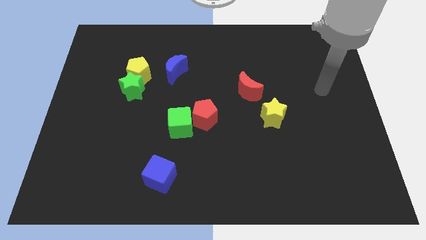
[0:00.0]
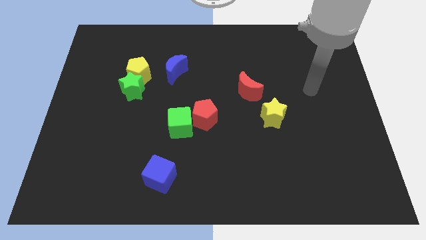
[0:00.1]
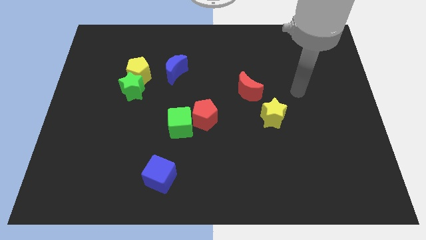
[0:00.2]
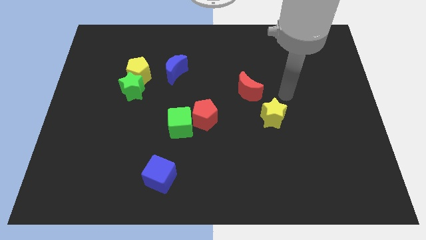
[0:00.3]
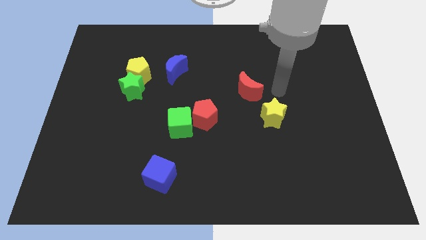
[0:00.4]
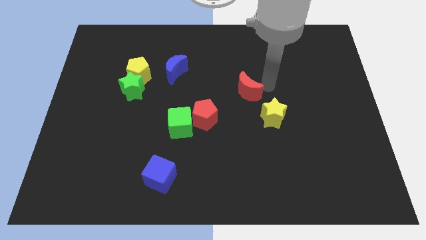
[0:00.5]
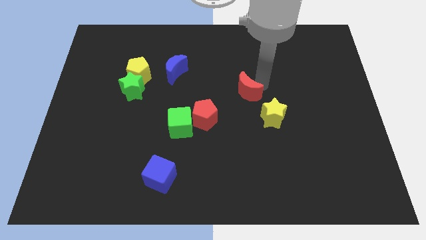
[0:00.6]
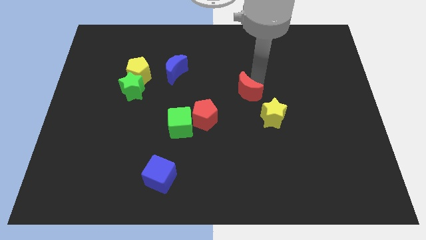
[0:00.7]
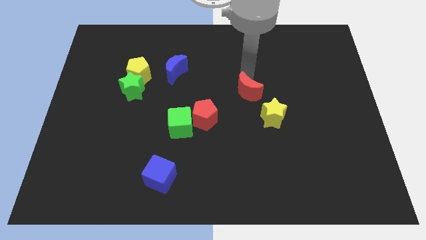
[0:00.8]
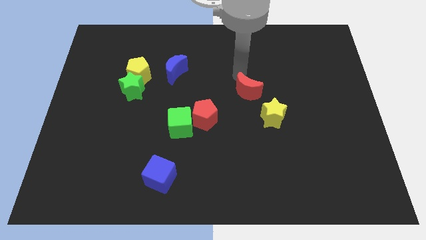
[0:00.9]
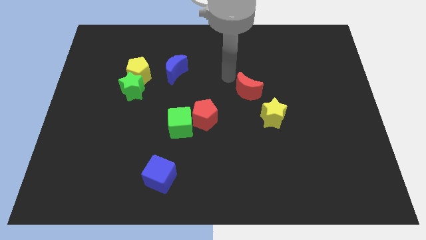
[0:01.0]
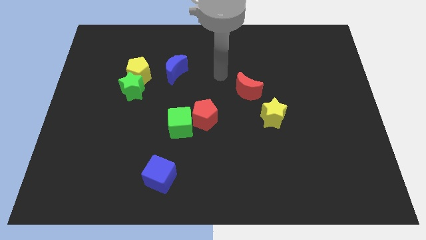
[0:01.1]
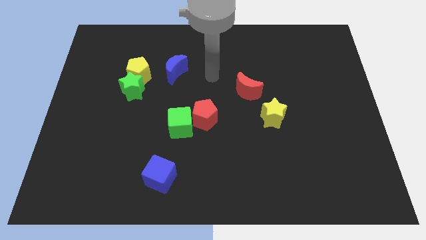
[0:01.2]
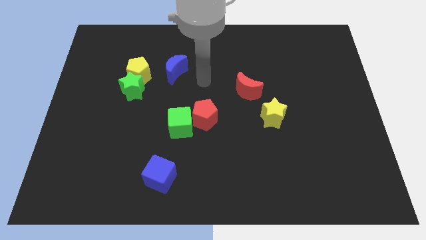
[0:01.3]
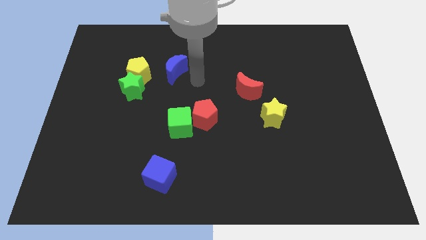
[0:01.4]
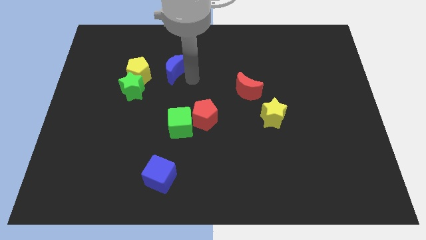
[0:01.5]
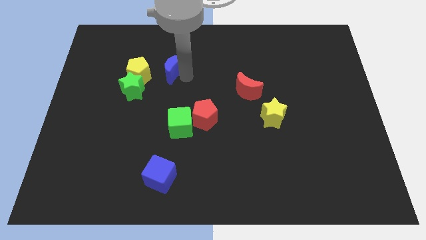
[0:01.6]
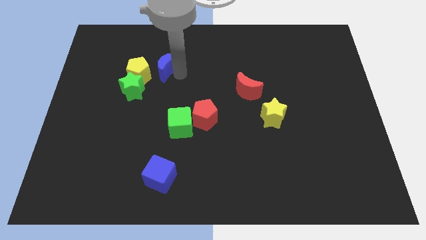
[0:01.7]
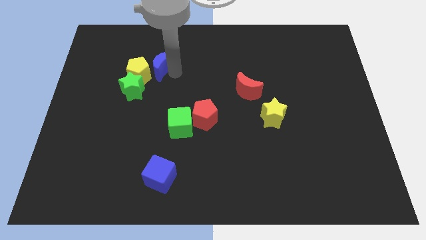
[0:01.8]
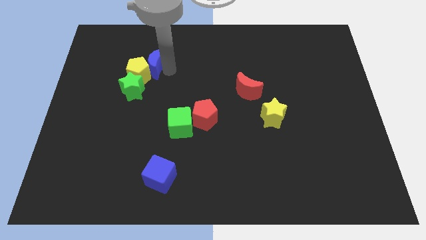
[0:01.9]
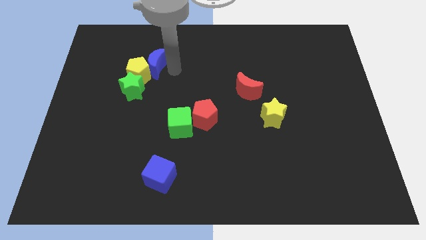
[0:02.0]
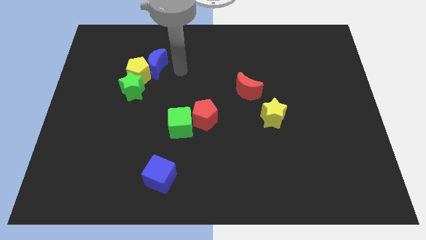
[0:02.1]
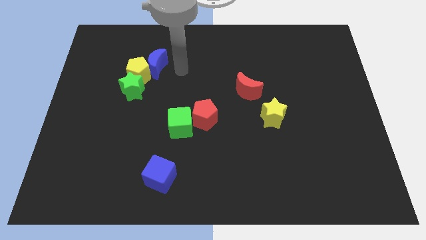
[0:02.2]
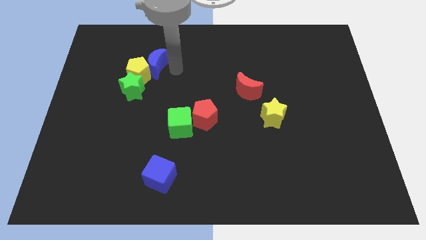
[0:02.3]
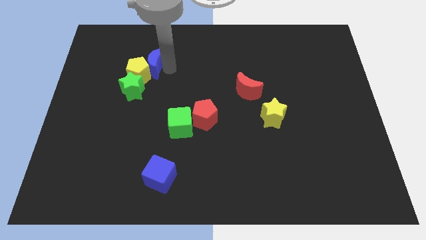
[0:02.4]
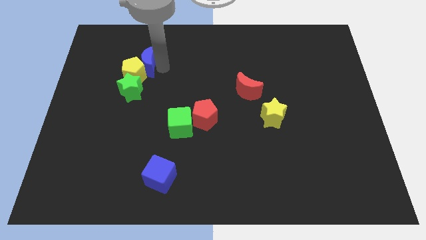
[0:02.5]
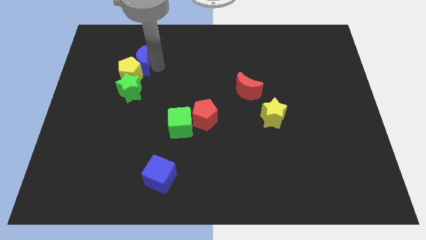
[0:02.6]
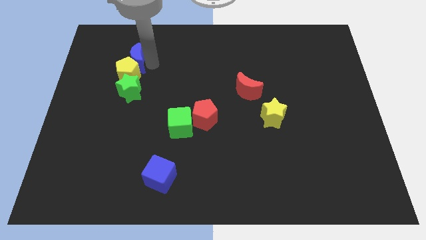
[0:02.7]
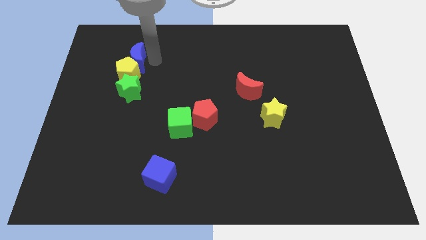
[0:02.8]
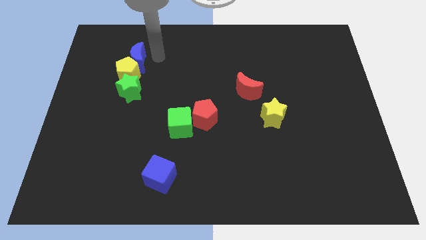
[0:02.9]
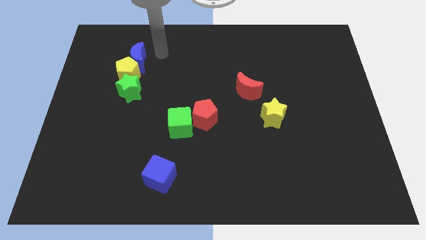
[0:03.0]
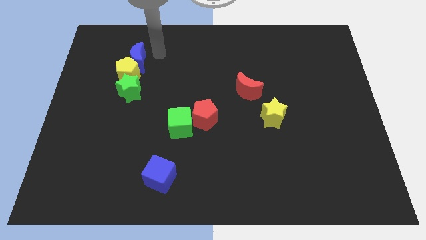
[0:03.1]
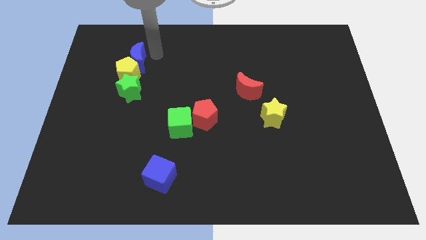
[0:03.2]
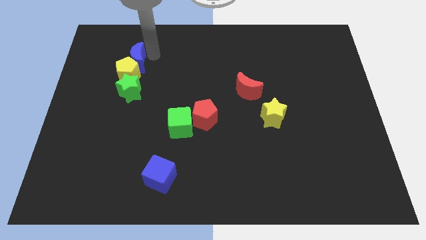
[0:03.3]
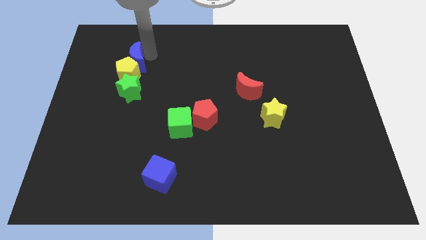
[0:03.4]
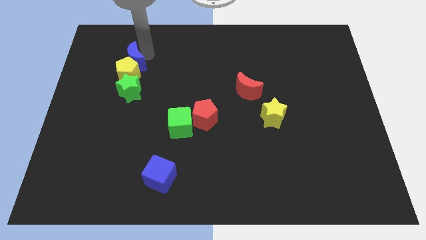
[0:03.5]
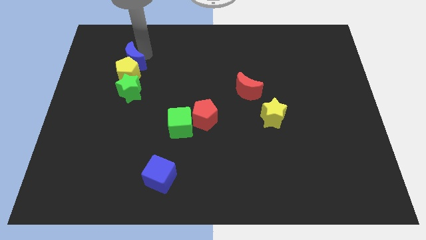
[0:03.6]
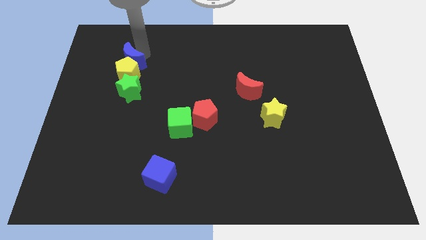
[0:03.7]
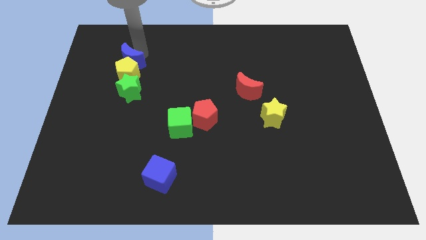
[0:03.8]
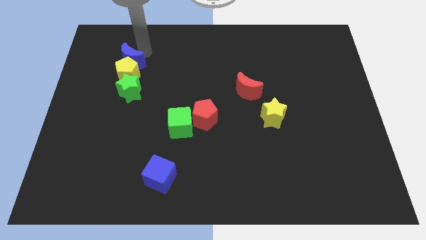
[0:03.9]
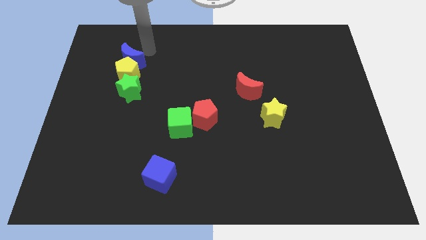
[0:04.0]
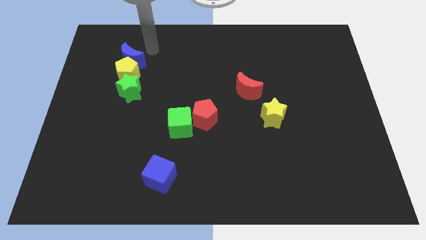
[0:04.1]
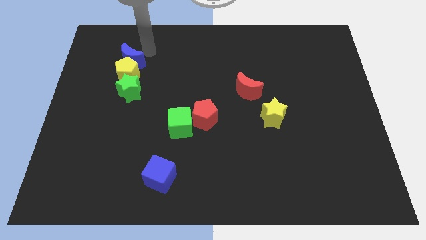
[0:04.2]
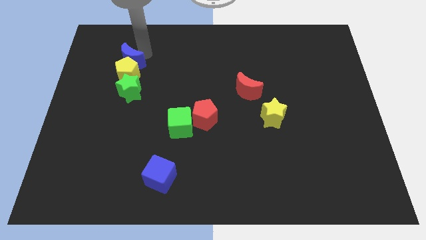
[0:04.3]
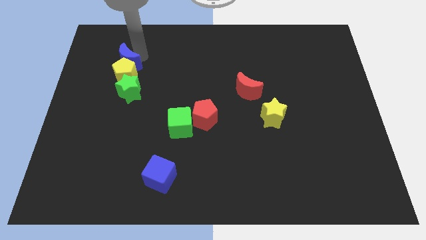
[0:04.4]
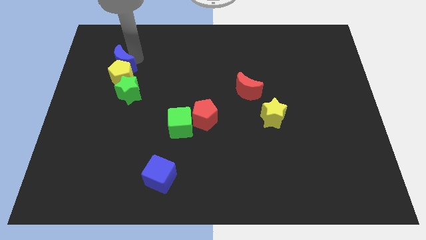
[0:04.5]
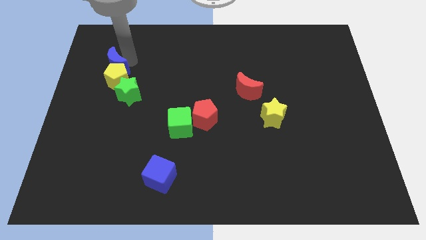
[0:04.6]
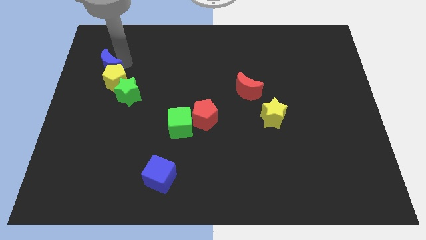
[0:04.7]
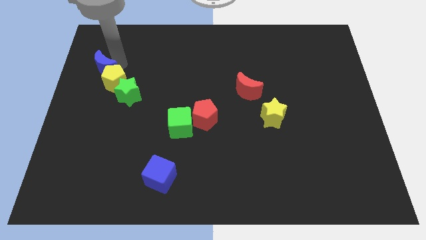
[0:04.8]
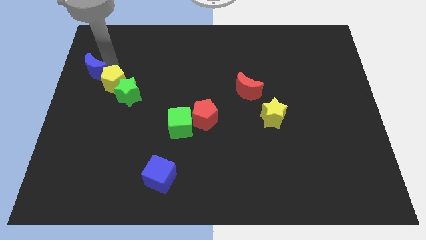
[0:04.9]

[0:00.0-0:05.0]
move the blue moon to the center left

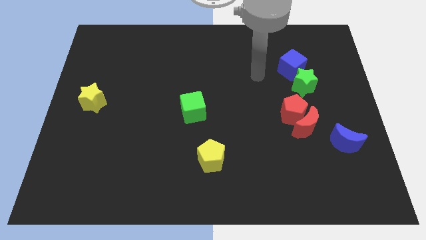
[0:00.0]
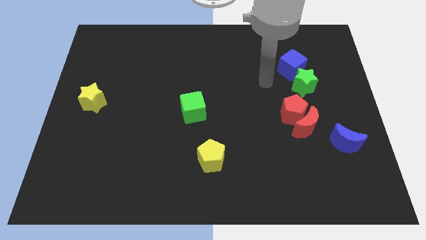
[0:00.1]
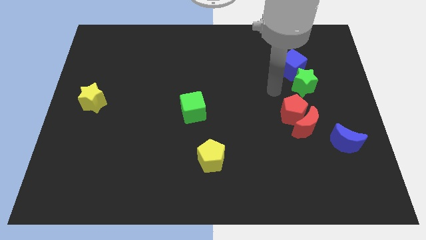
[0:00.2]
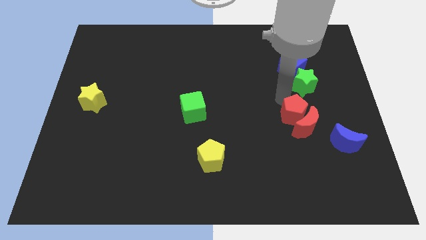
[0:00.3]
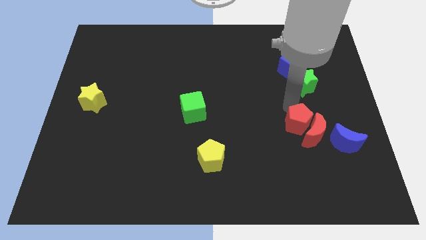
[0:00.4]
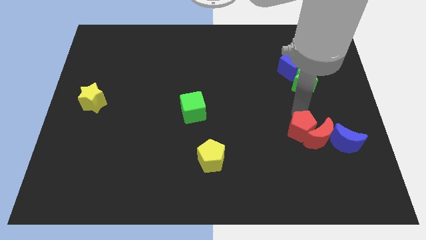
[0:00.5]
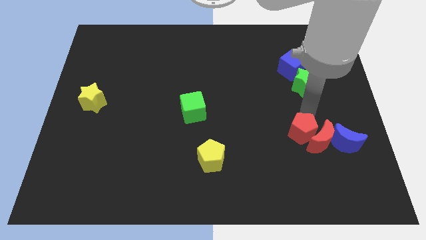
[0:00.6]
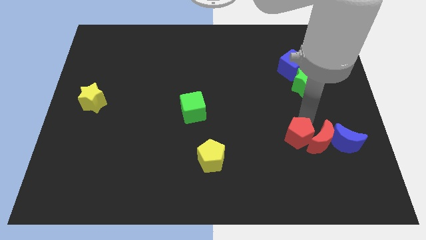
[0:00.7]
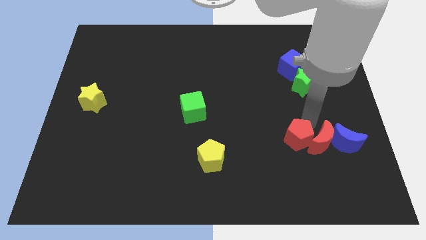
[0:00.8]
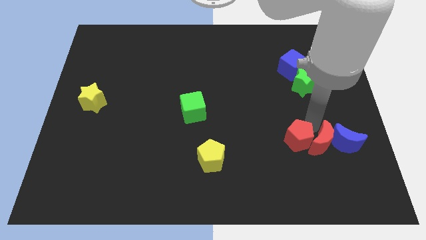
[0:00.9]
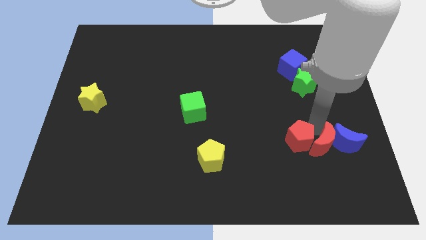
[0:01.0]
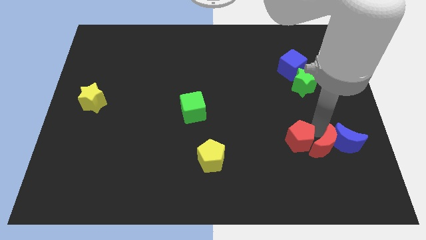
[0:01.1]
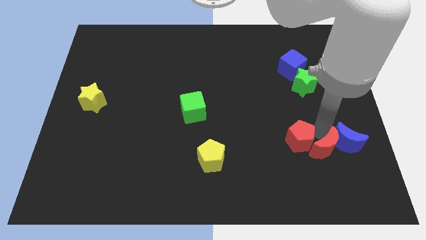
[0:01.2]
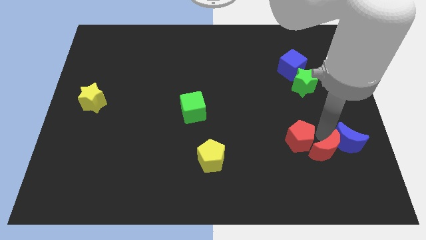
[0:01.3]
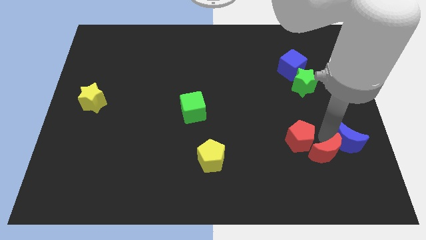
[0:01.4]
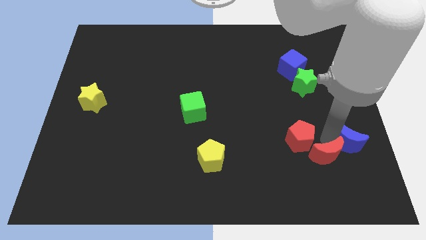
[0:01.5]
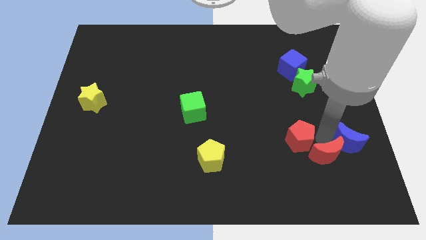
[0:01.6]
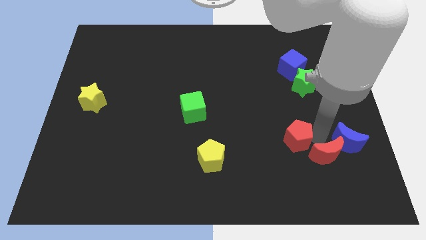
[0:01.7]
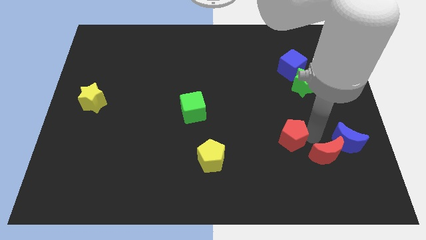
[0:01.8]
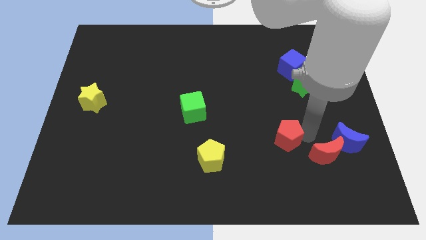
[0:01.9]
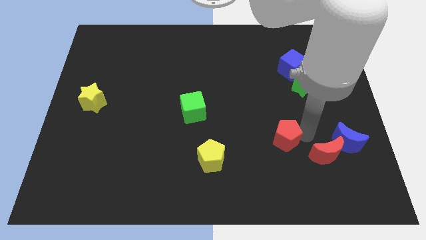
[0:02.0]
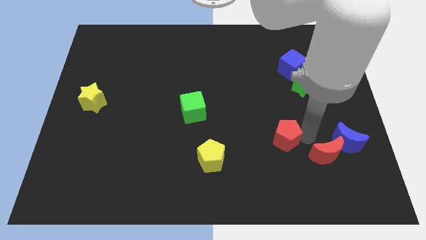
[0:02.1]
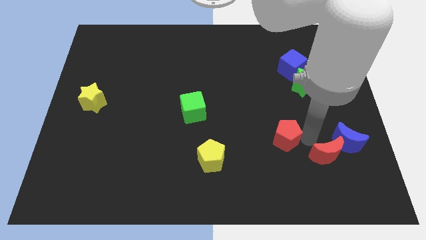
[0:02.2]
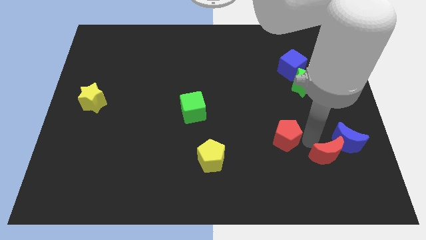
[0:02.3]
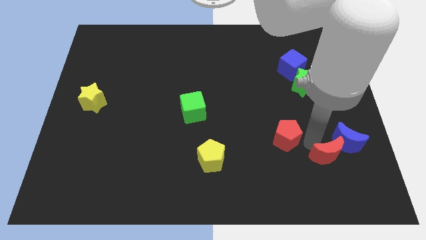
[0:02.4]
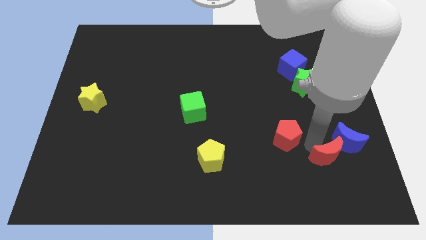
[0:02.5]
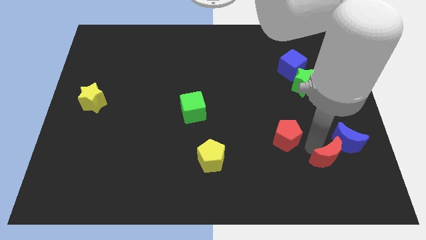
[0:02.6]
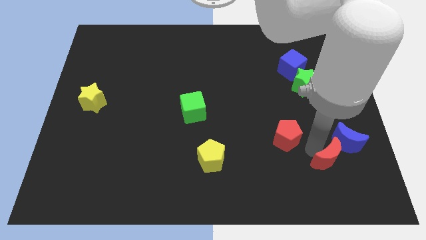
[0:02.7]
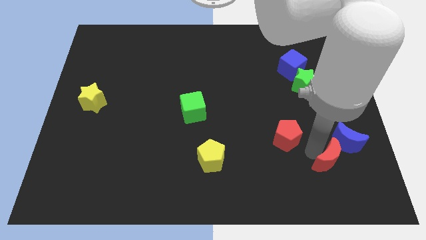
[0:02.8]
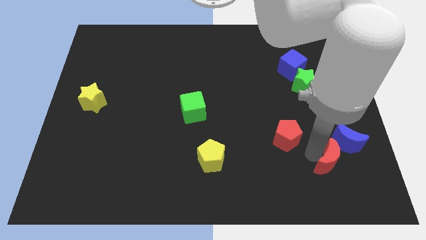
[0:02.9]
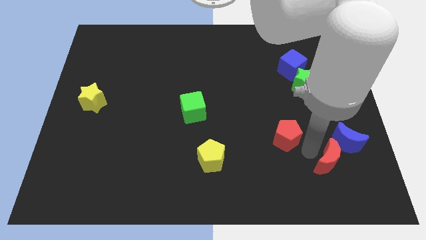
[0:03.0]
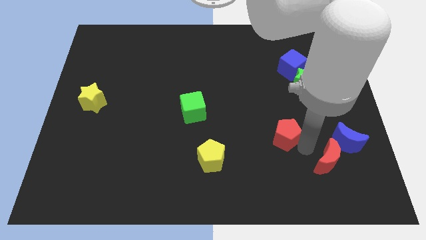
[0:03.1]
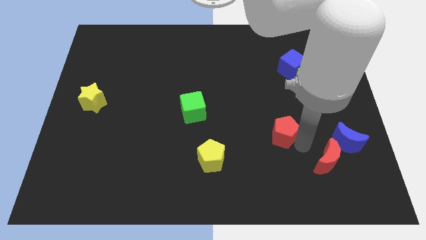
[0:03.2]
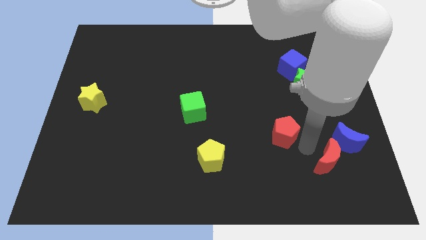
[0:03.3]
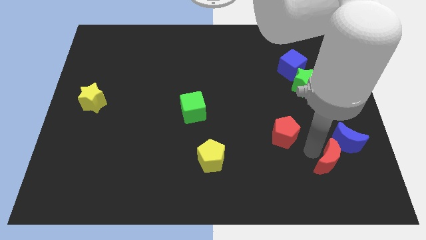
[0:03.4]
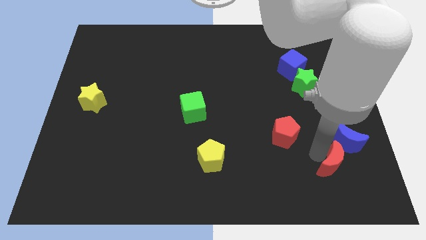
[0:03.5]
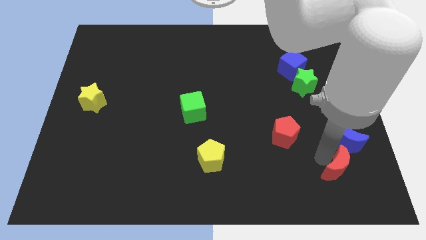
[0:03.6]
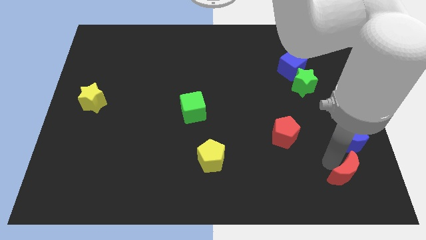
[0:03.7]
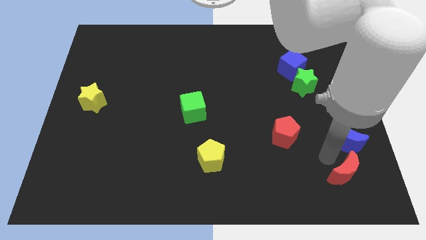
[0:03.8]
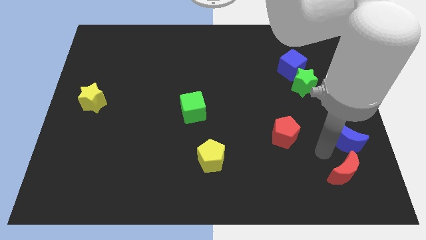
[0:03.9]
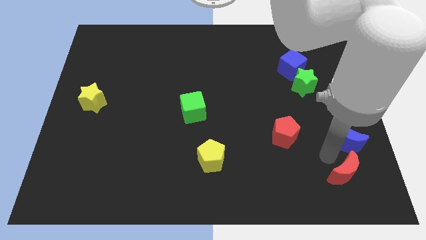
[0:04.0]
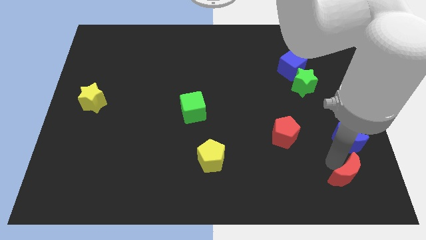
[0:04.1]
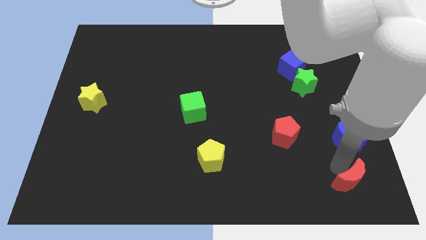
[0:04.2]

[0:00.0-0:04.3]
push the red moon to the lower right corner
